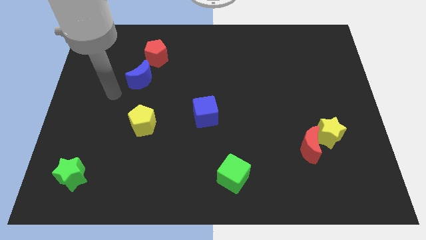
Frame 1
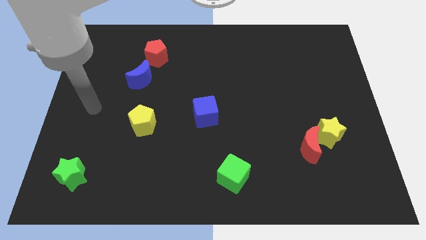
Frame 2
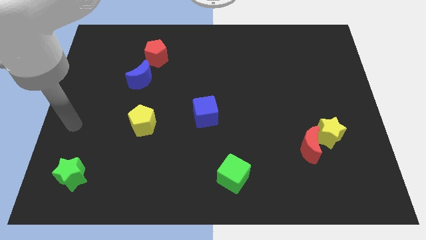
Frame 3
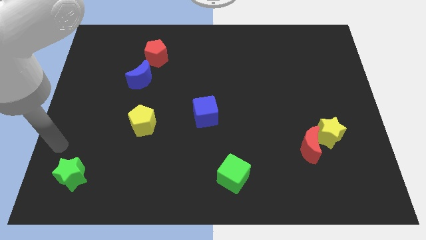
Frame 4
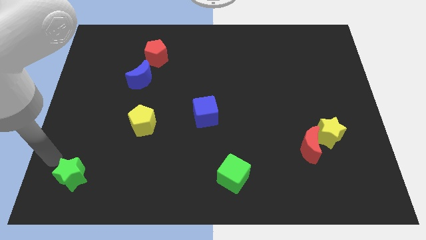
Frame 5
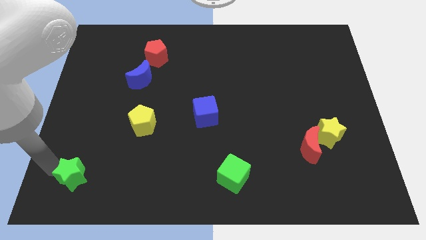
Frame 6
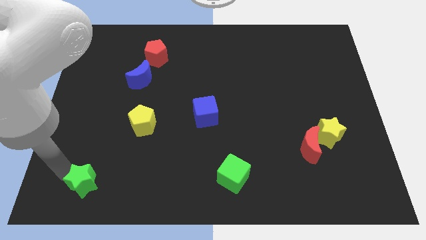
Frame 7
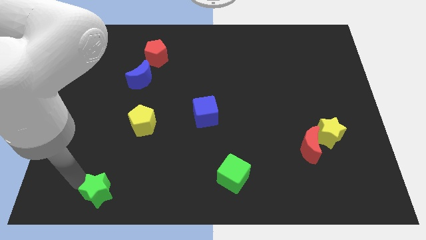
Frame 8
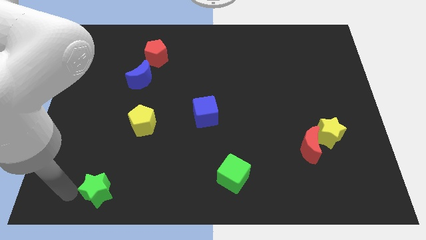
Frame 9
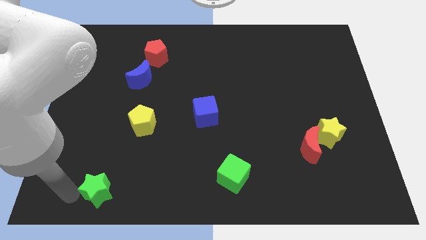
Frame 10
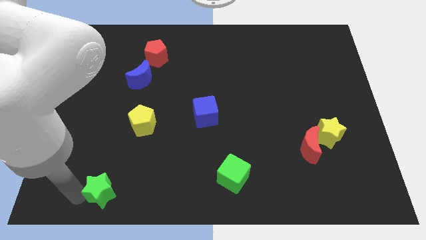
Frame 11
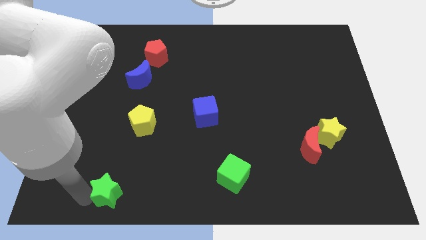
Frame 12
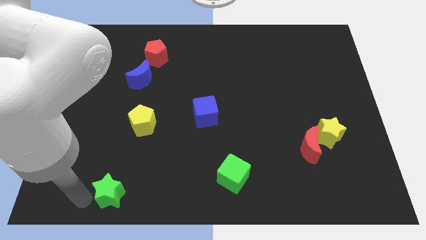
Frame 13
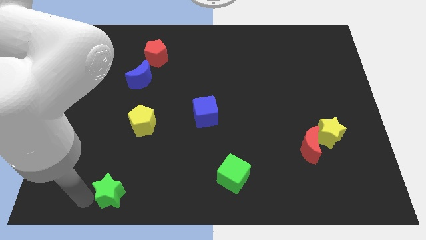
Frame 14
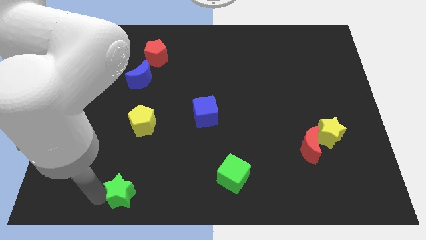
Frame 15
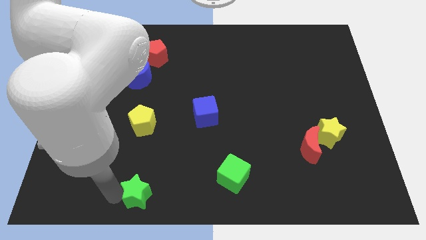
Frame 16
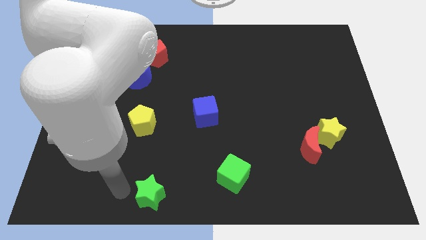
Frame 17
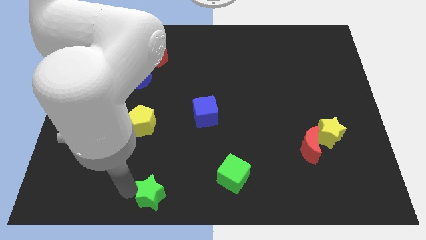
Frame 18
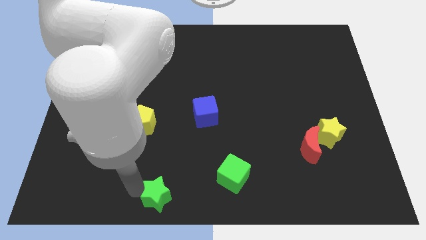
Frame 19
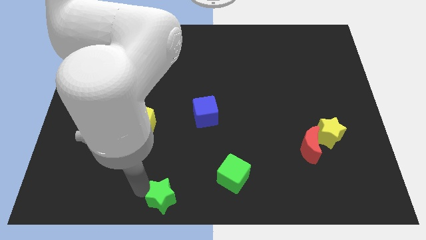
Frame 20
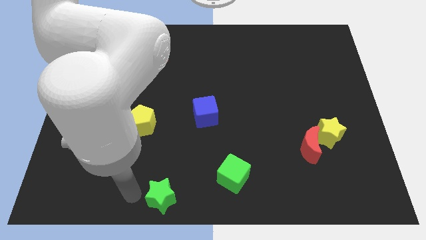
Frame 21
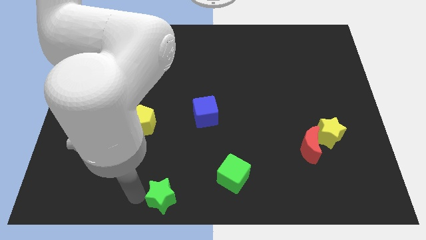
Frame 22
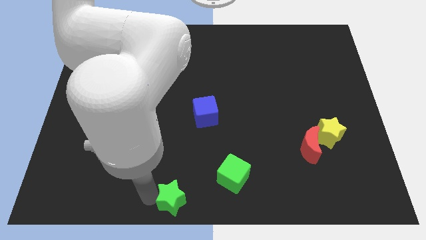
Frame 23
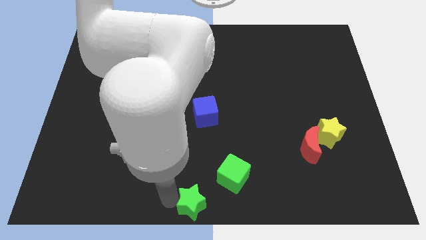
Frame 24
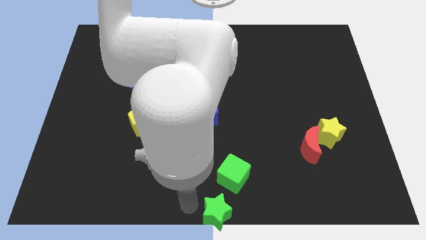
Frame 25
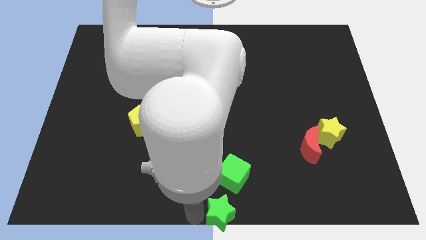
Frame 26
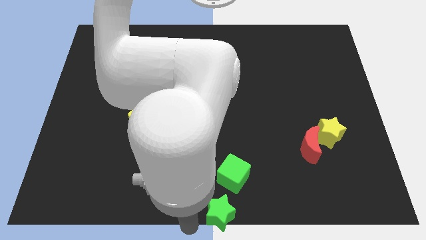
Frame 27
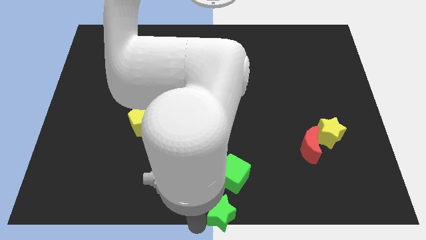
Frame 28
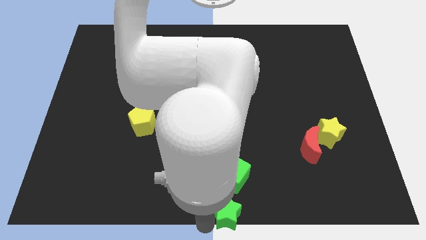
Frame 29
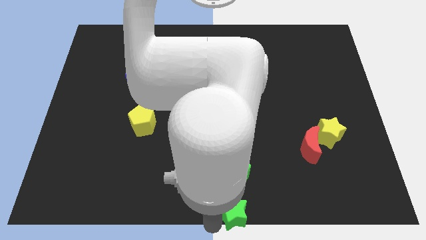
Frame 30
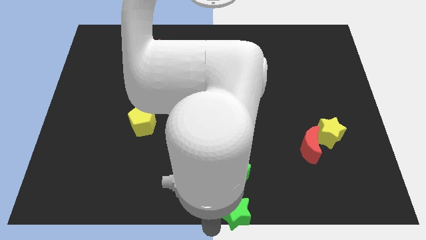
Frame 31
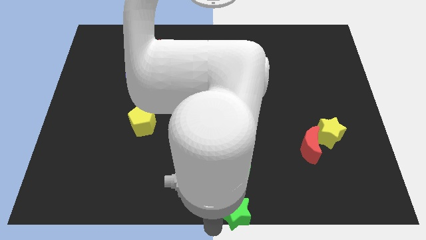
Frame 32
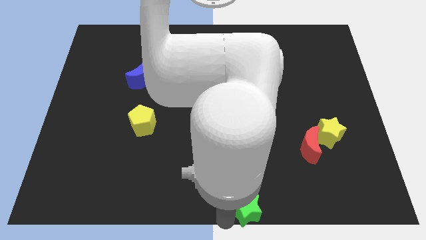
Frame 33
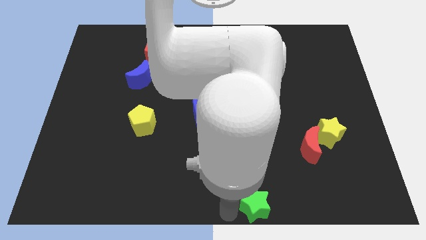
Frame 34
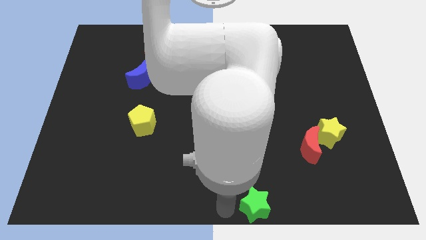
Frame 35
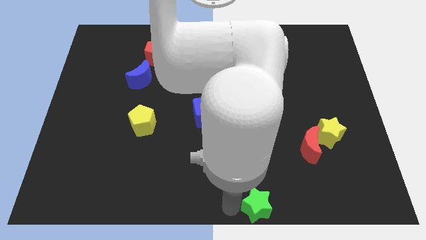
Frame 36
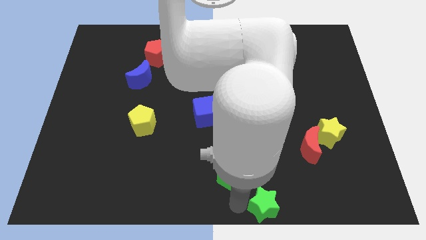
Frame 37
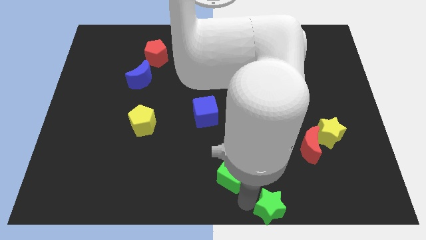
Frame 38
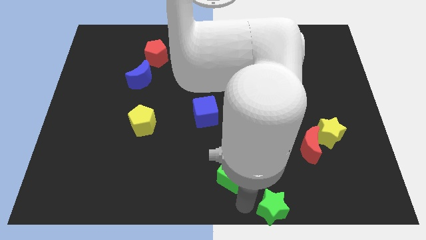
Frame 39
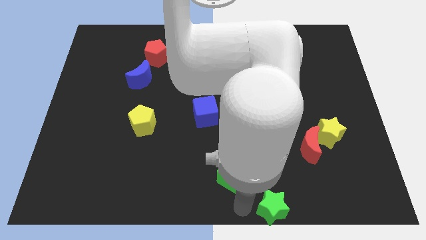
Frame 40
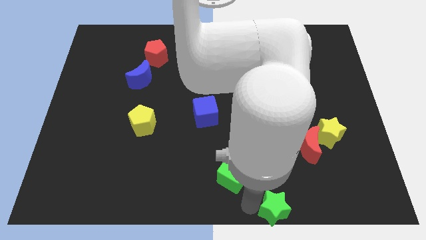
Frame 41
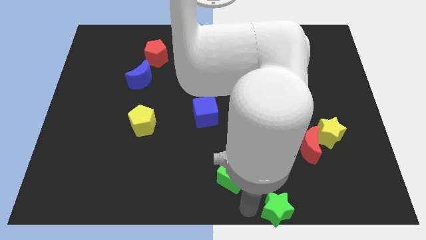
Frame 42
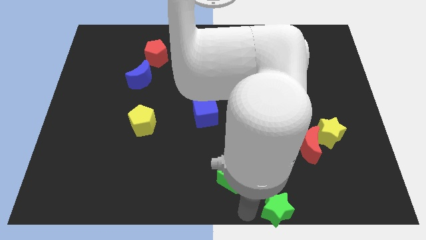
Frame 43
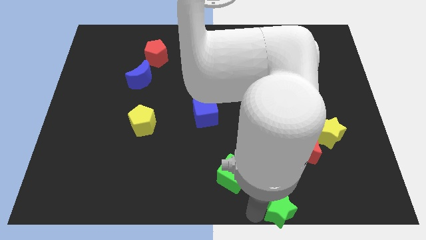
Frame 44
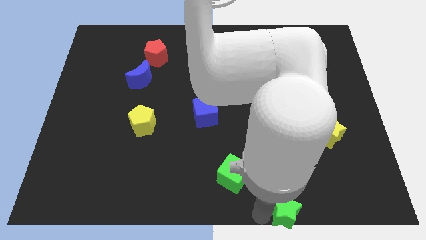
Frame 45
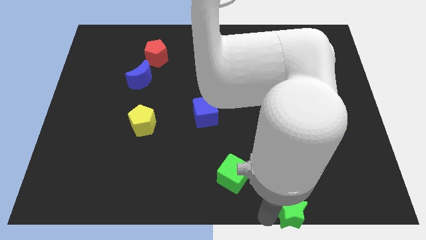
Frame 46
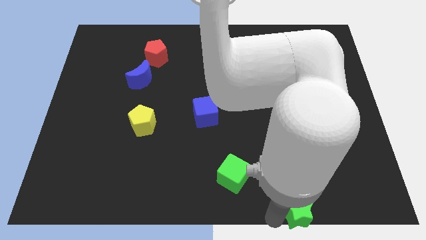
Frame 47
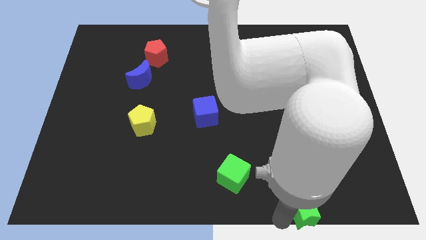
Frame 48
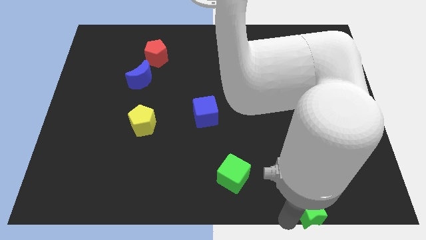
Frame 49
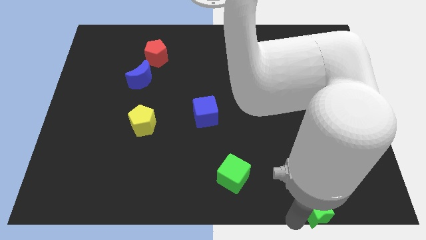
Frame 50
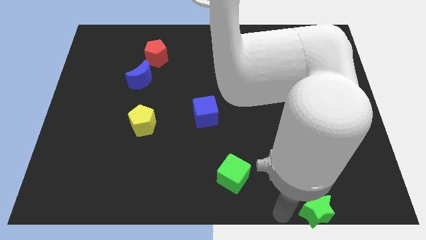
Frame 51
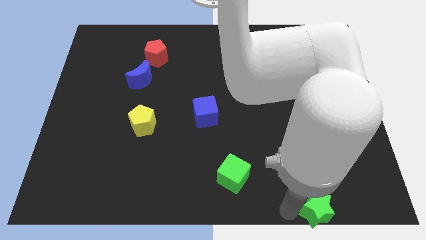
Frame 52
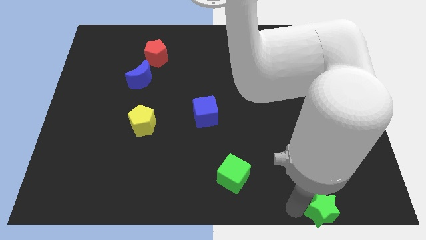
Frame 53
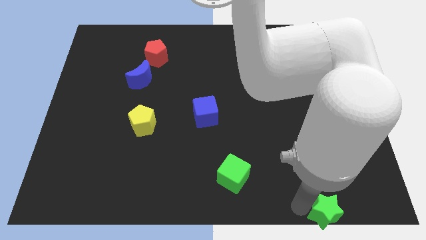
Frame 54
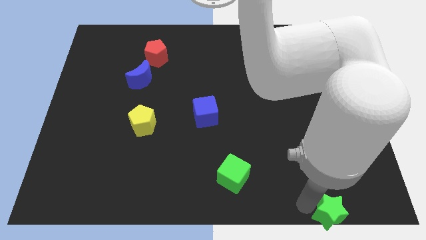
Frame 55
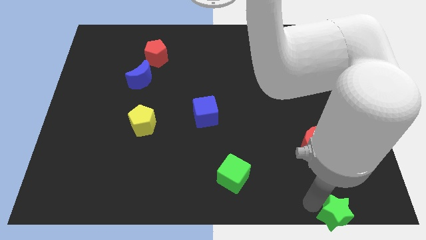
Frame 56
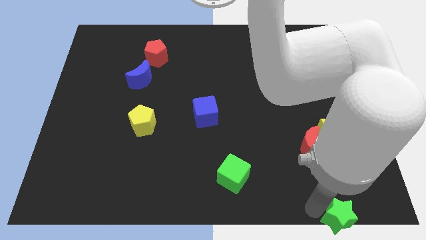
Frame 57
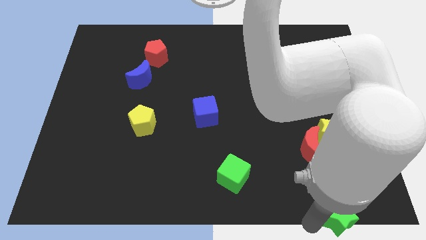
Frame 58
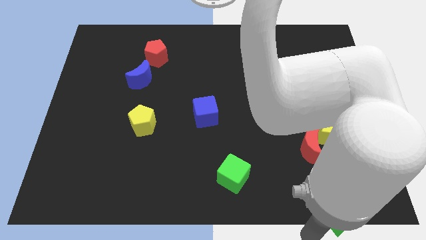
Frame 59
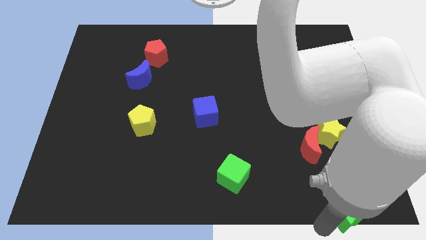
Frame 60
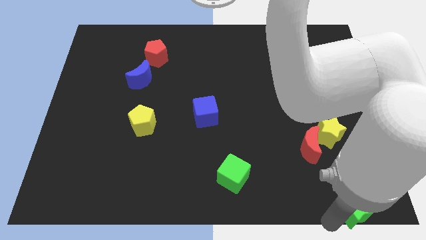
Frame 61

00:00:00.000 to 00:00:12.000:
slide the green star to the bottom right

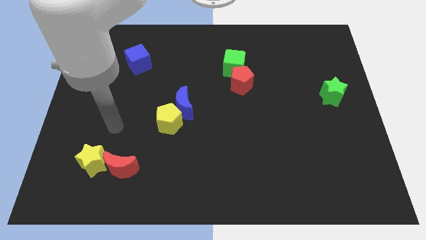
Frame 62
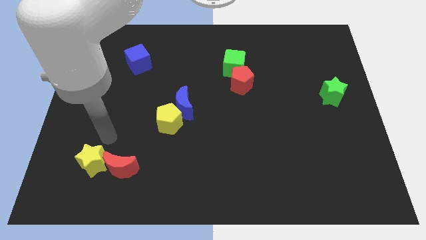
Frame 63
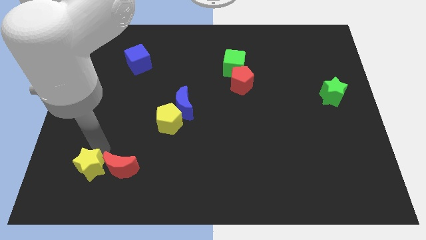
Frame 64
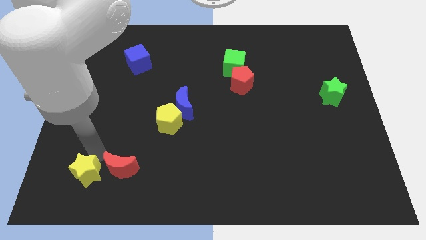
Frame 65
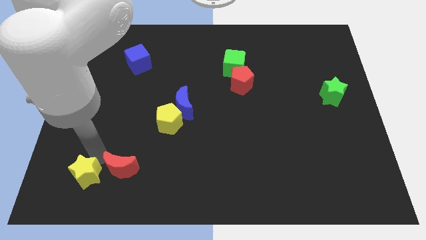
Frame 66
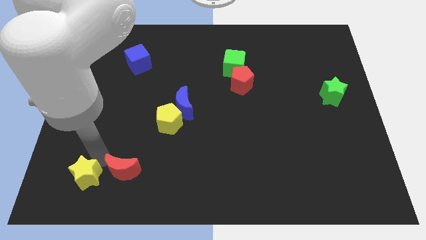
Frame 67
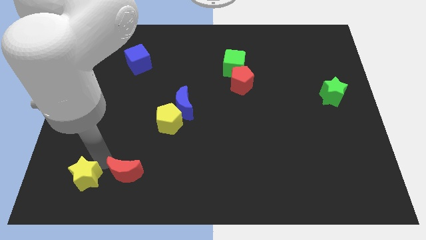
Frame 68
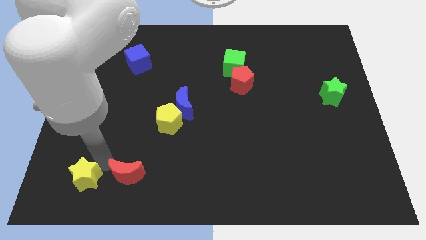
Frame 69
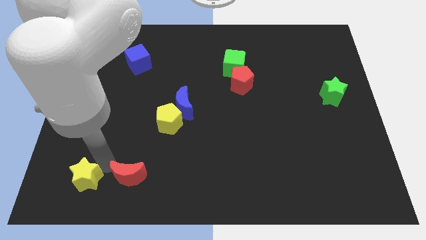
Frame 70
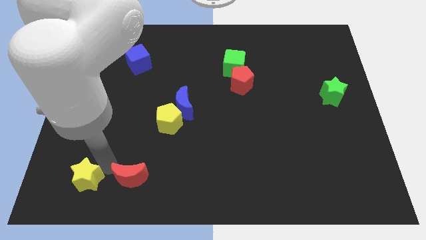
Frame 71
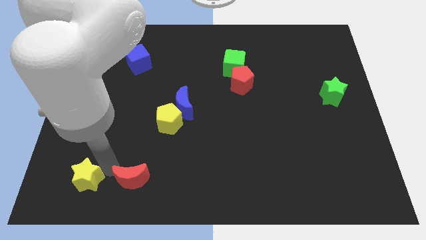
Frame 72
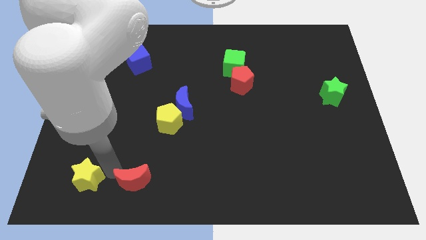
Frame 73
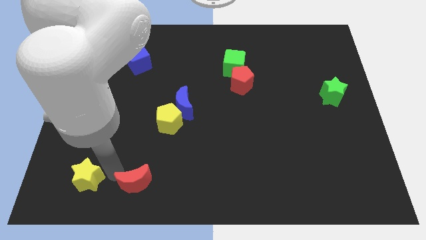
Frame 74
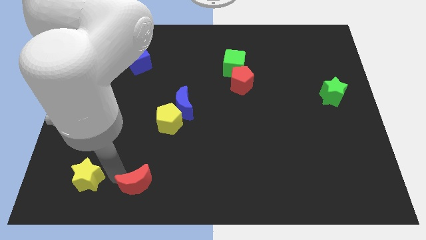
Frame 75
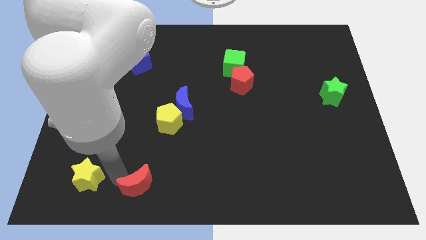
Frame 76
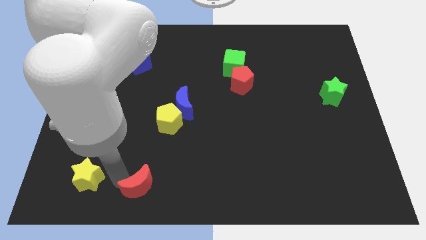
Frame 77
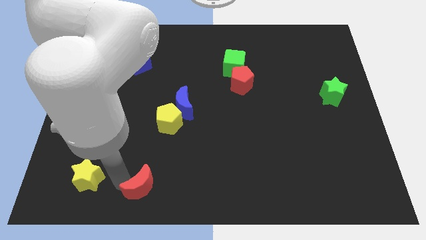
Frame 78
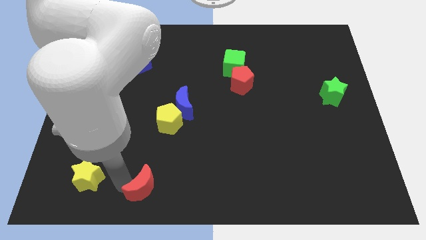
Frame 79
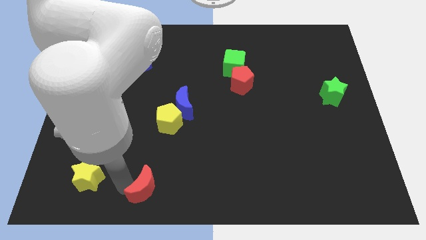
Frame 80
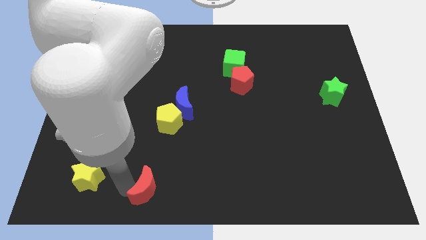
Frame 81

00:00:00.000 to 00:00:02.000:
put the red moon to the bottom
